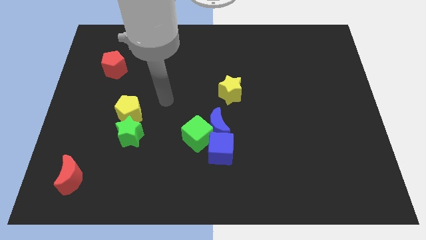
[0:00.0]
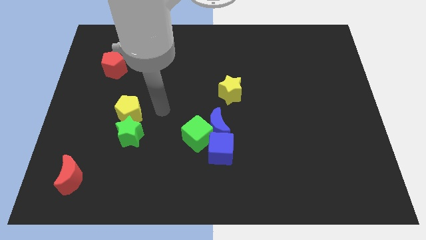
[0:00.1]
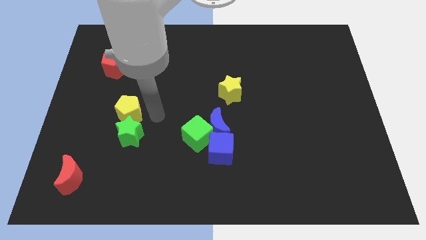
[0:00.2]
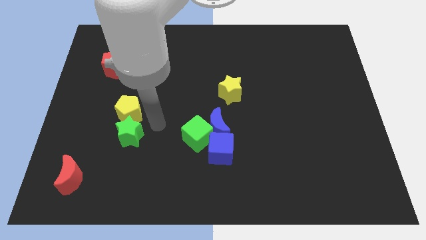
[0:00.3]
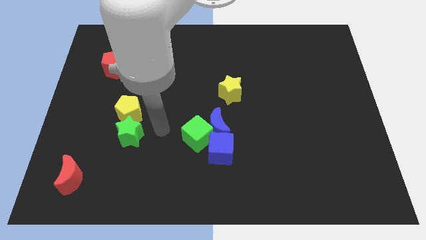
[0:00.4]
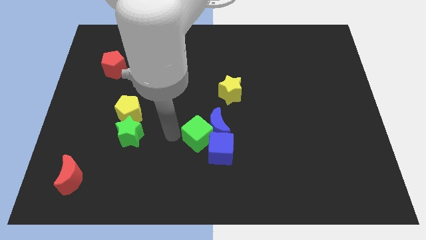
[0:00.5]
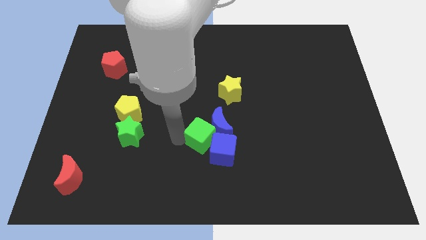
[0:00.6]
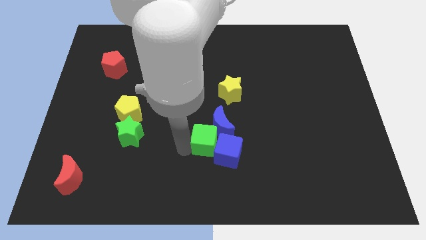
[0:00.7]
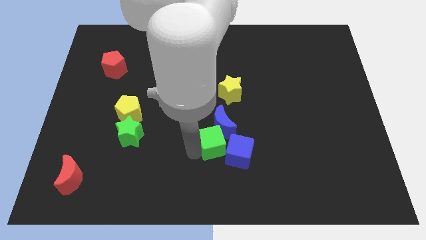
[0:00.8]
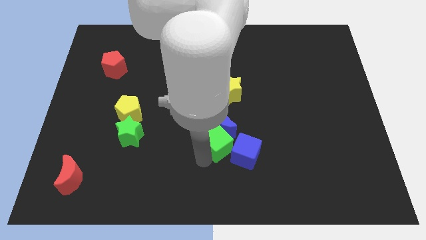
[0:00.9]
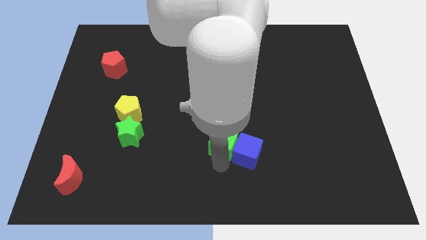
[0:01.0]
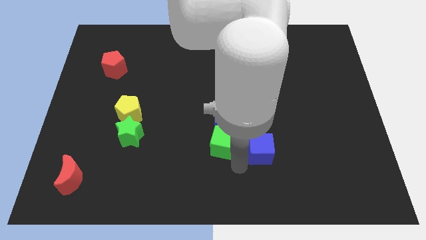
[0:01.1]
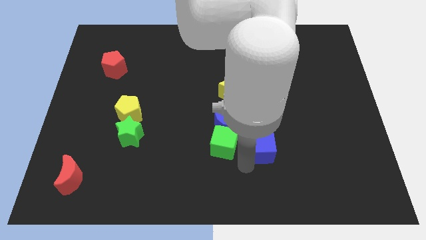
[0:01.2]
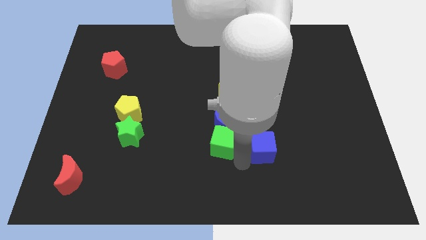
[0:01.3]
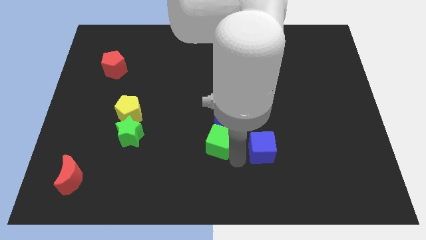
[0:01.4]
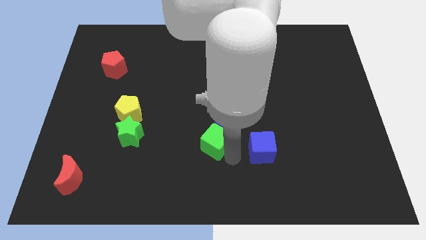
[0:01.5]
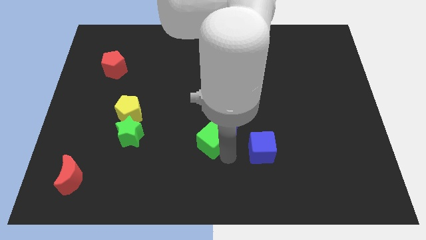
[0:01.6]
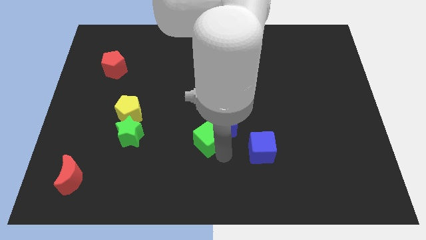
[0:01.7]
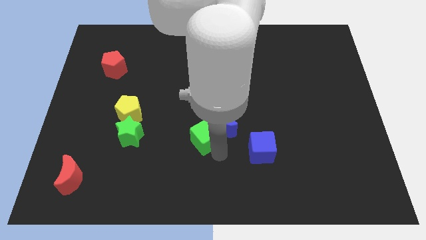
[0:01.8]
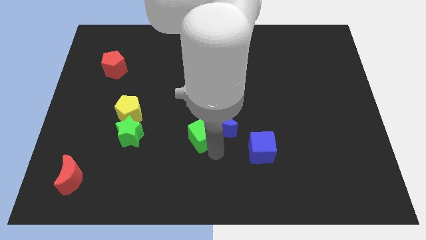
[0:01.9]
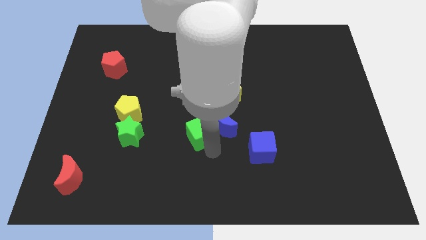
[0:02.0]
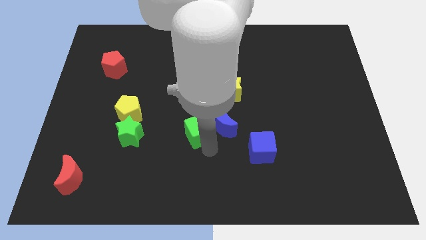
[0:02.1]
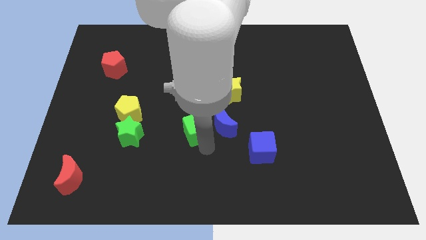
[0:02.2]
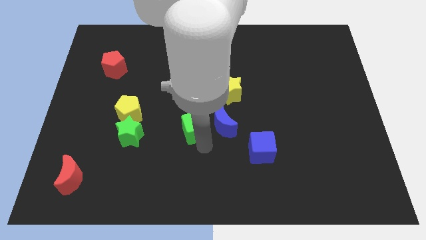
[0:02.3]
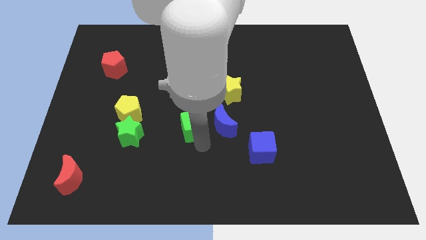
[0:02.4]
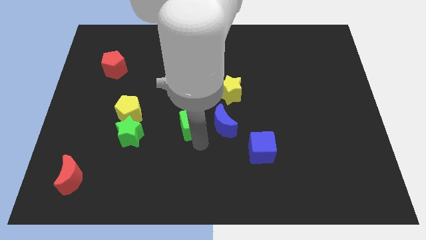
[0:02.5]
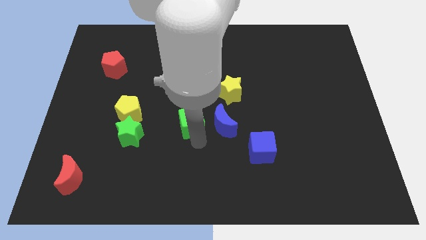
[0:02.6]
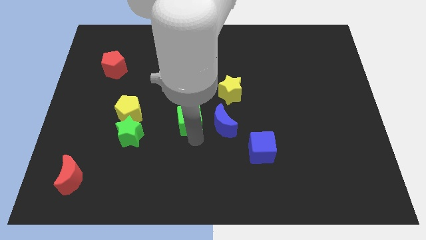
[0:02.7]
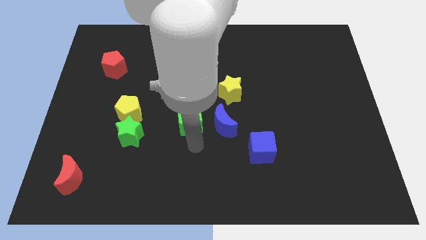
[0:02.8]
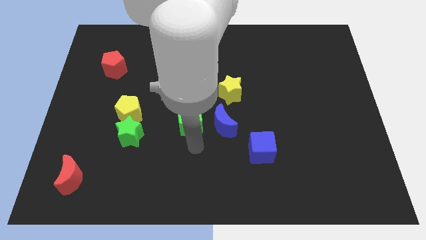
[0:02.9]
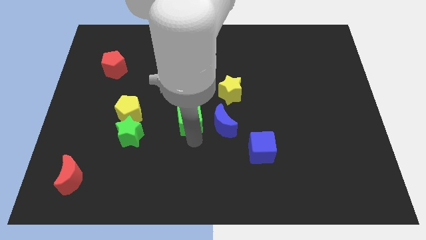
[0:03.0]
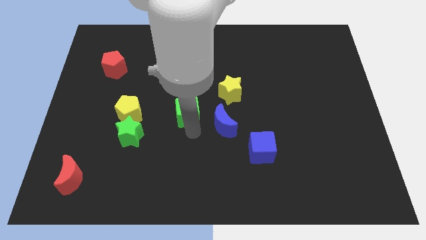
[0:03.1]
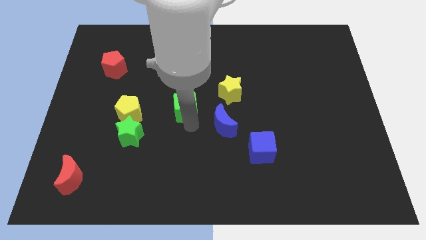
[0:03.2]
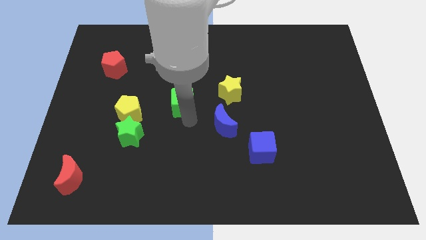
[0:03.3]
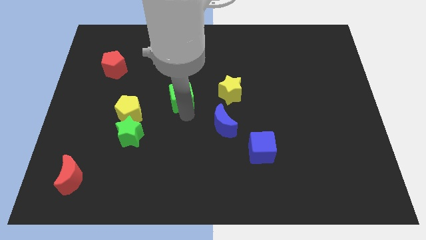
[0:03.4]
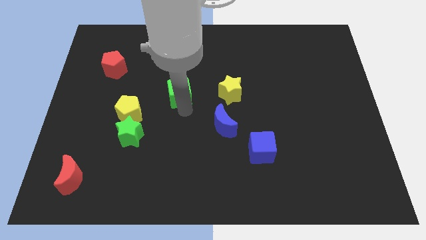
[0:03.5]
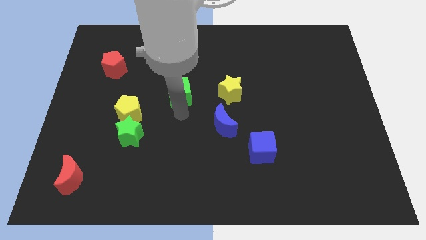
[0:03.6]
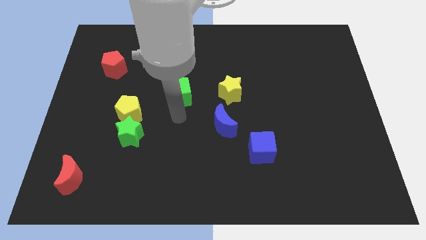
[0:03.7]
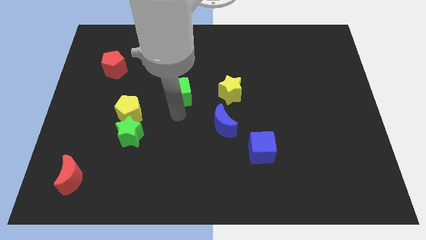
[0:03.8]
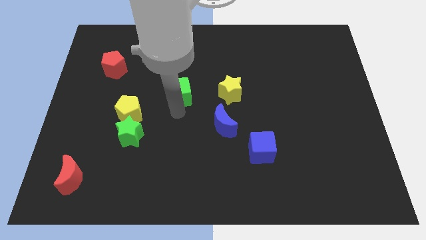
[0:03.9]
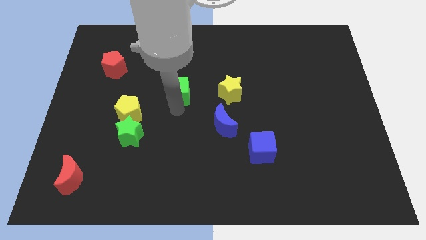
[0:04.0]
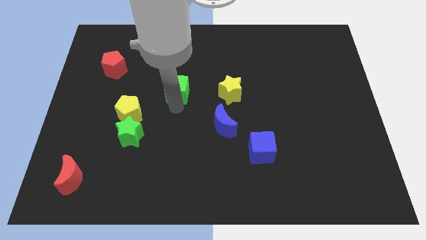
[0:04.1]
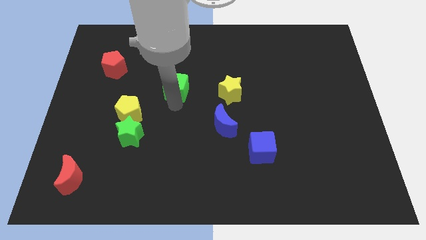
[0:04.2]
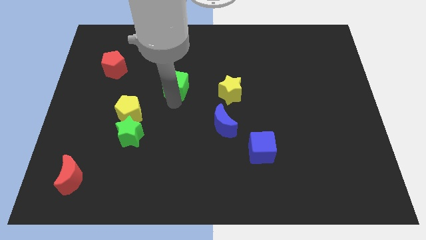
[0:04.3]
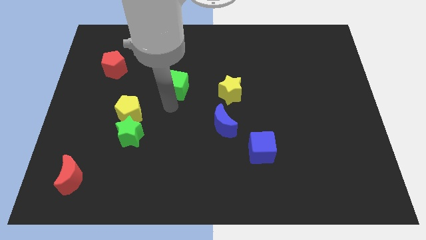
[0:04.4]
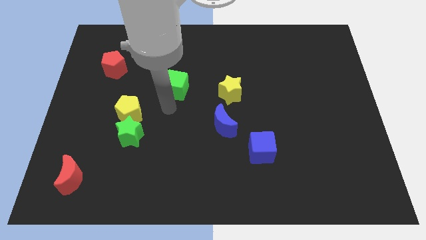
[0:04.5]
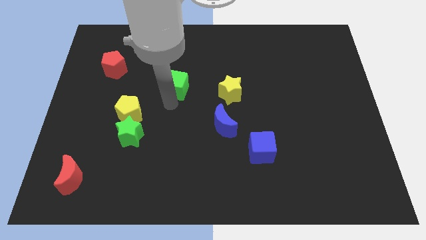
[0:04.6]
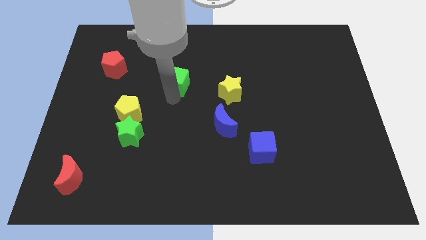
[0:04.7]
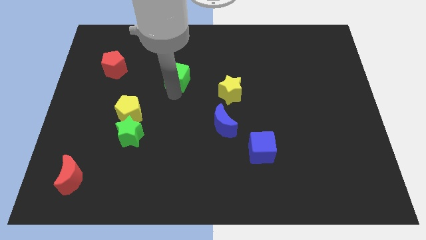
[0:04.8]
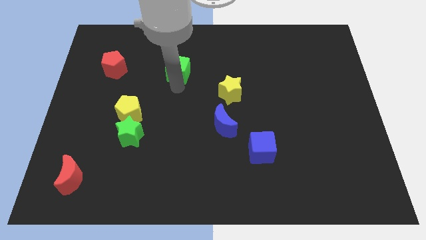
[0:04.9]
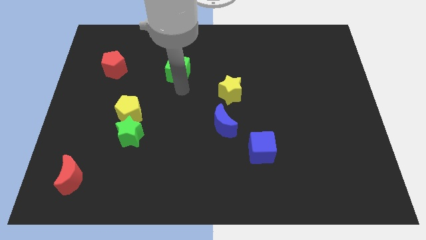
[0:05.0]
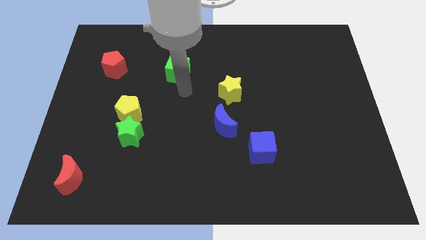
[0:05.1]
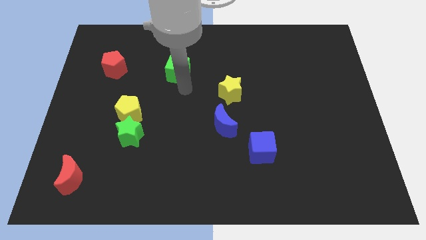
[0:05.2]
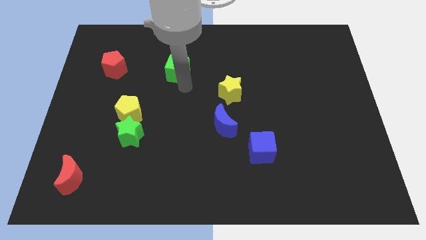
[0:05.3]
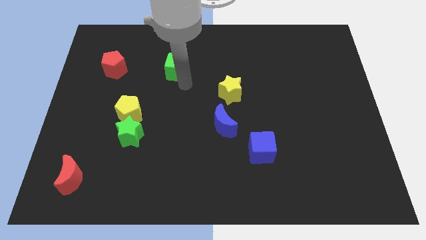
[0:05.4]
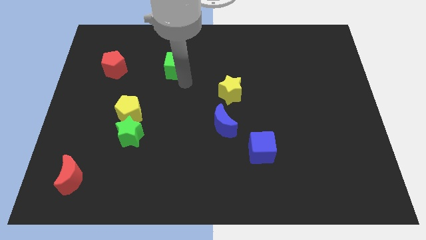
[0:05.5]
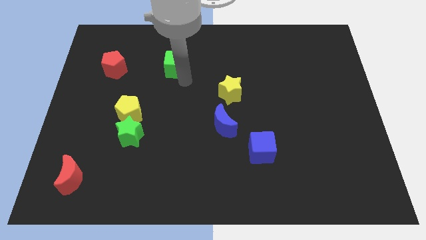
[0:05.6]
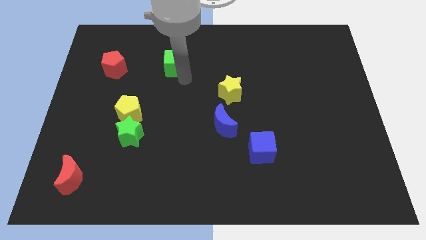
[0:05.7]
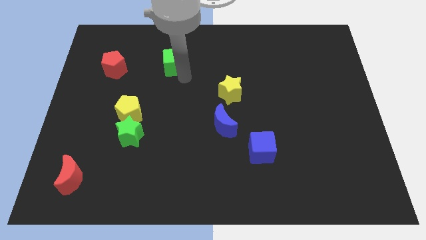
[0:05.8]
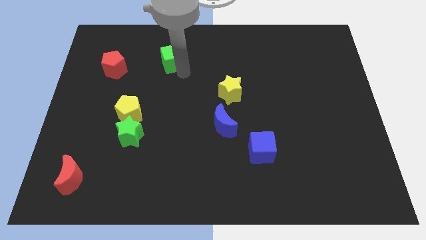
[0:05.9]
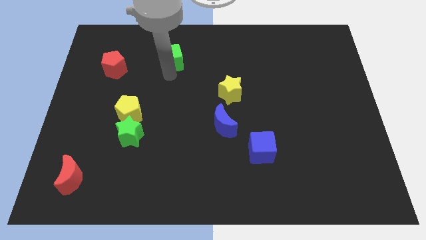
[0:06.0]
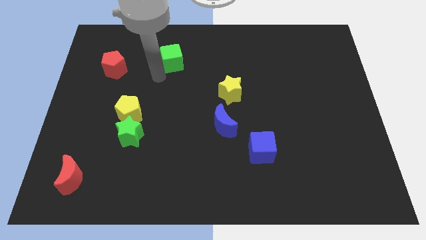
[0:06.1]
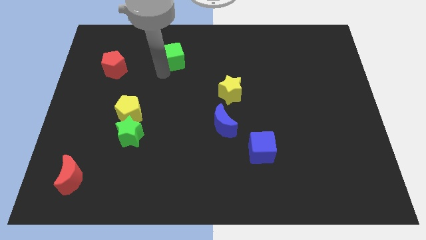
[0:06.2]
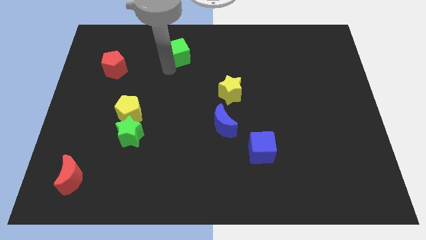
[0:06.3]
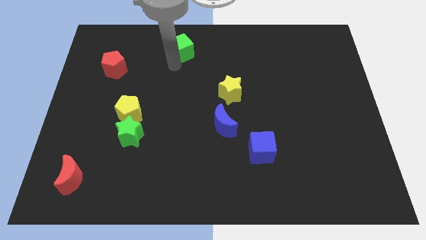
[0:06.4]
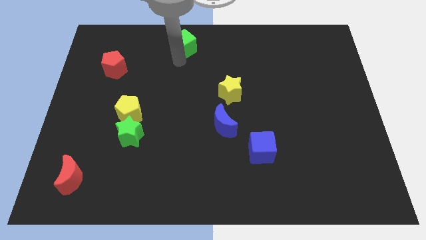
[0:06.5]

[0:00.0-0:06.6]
push the green cube to the top side
